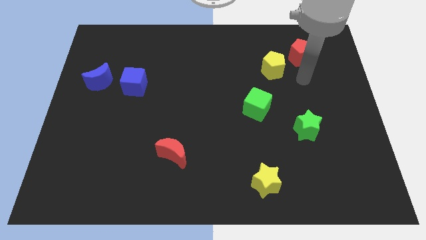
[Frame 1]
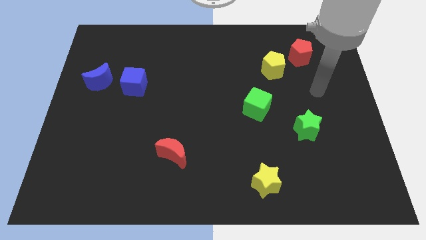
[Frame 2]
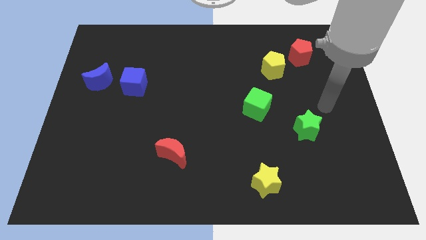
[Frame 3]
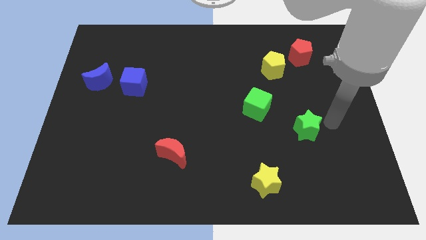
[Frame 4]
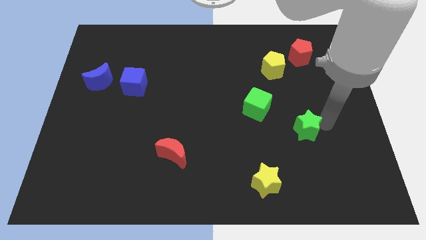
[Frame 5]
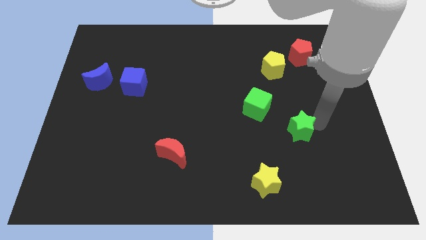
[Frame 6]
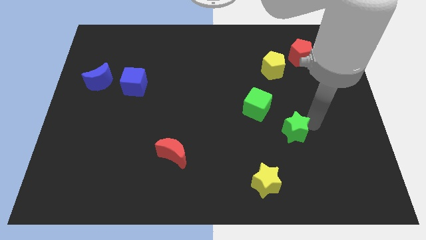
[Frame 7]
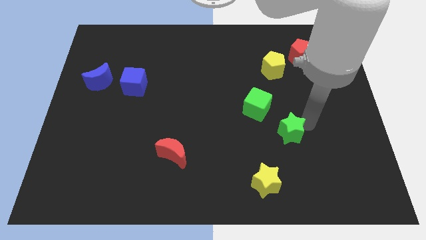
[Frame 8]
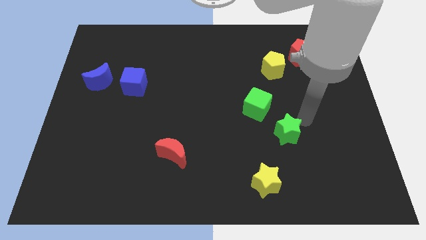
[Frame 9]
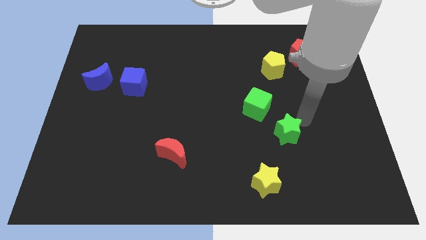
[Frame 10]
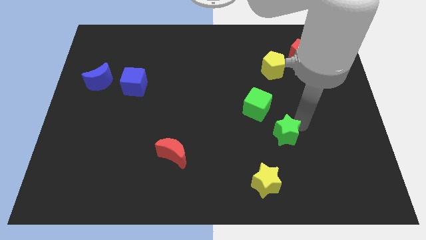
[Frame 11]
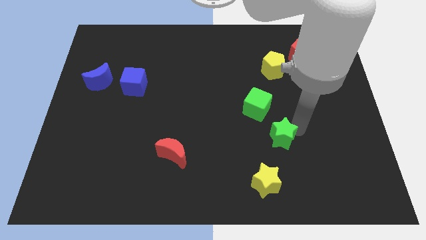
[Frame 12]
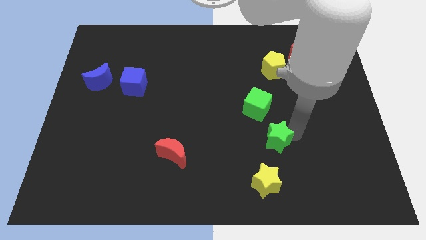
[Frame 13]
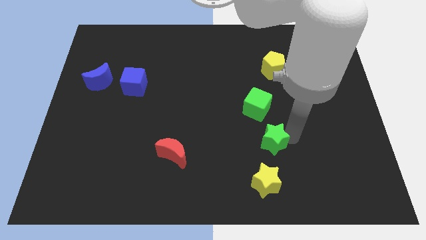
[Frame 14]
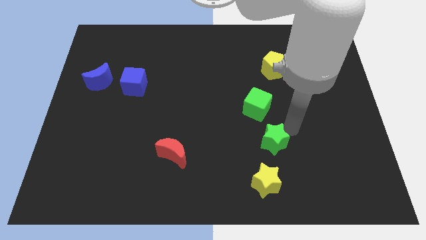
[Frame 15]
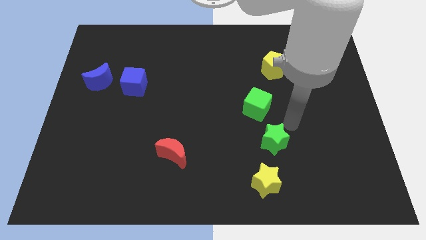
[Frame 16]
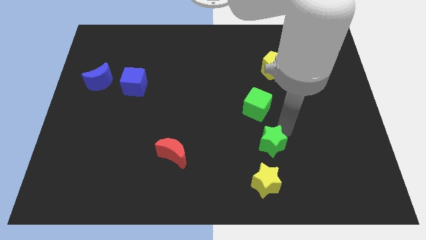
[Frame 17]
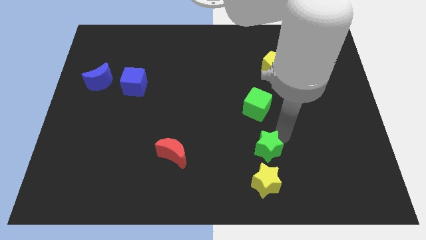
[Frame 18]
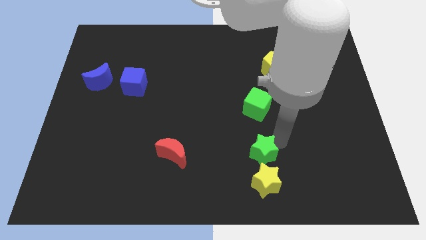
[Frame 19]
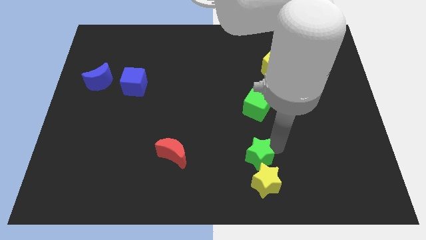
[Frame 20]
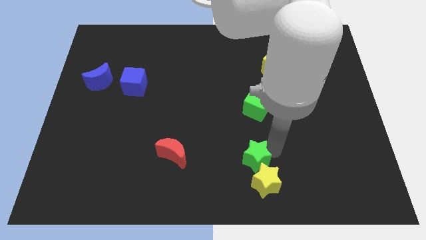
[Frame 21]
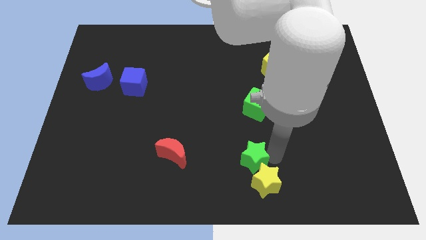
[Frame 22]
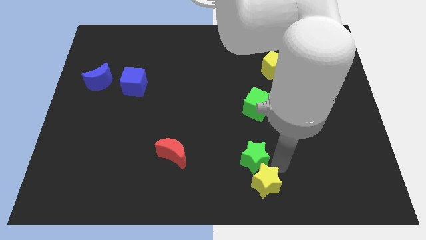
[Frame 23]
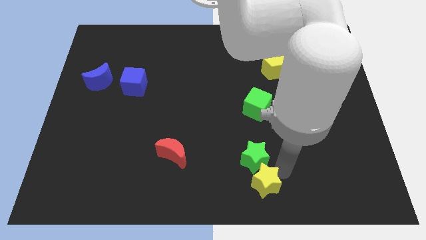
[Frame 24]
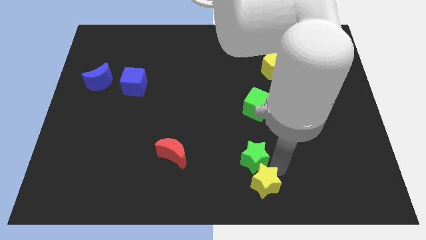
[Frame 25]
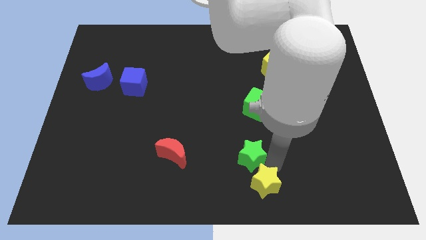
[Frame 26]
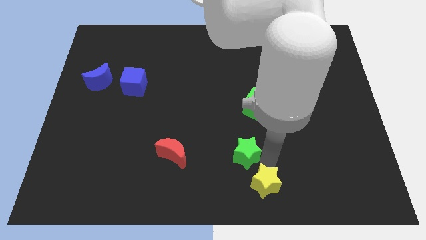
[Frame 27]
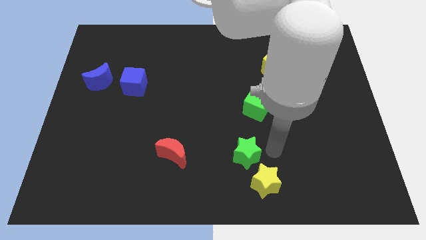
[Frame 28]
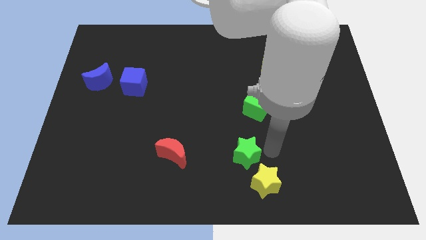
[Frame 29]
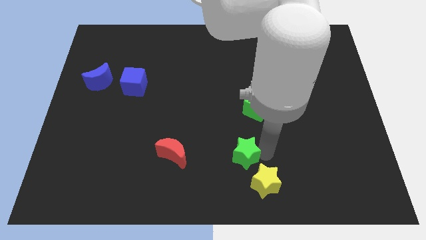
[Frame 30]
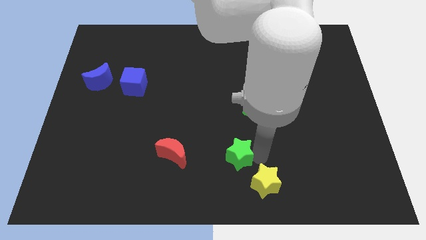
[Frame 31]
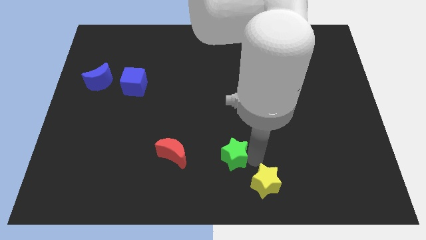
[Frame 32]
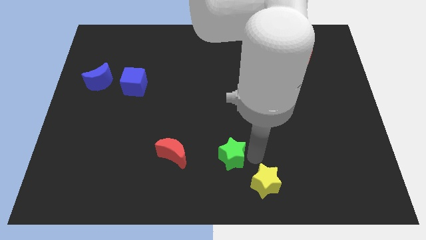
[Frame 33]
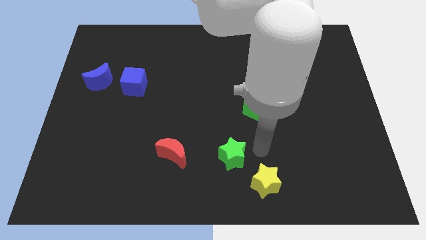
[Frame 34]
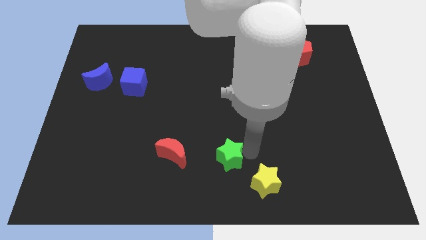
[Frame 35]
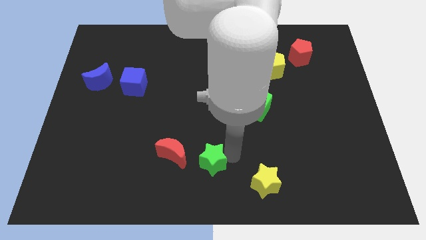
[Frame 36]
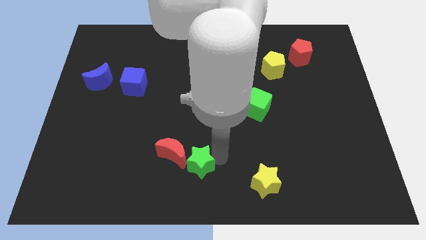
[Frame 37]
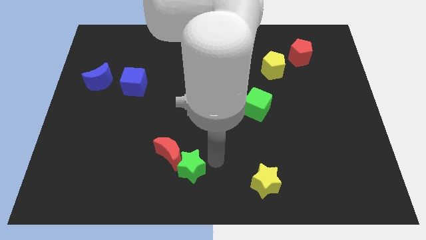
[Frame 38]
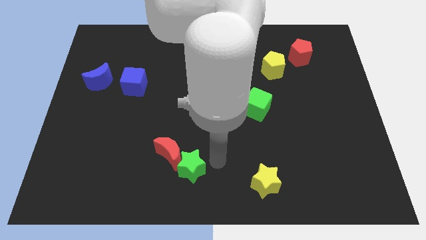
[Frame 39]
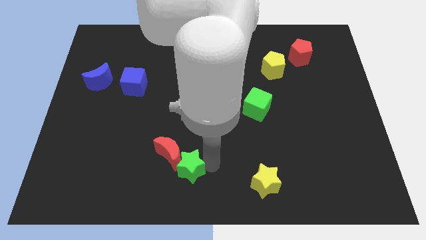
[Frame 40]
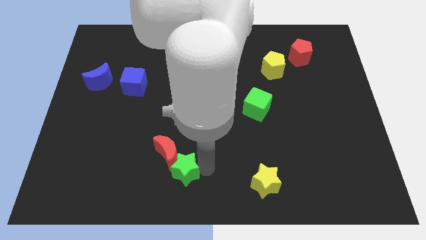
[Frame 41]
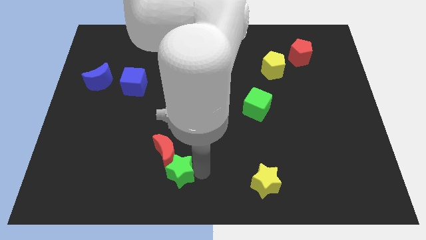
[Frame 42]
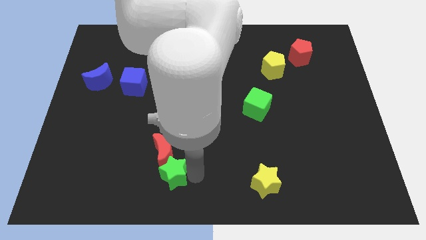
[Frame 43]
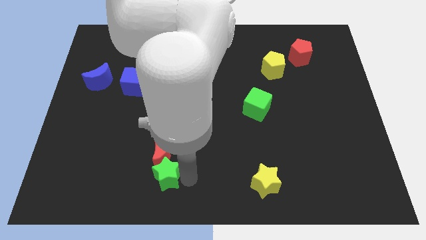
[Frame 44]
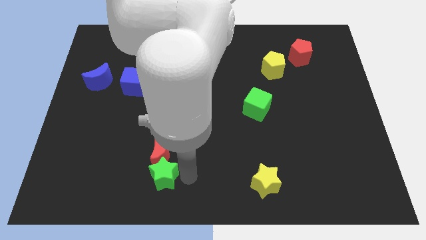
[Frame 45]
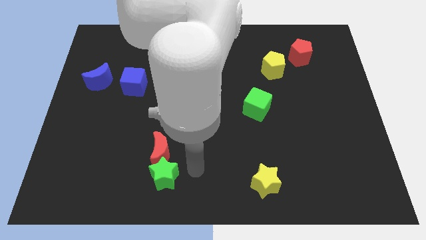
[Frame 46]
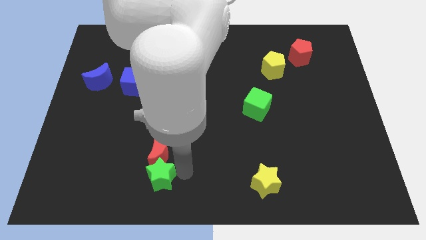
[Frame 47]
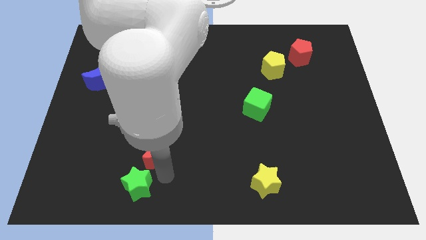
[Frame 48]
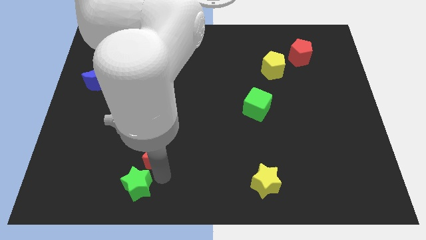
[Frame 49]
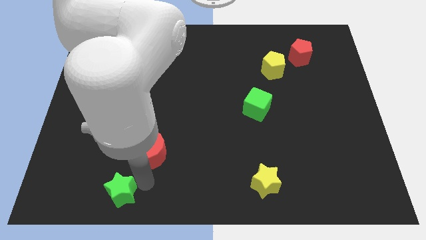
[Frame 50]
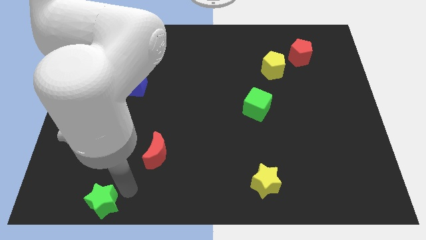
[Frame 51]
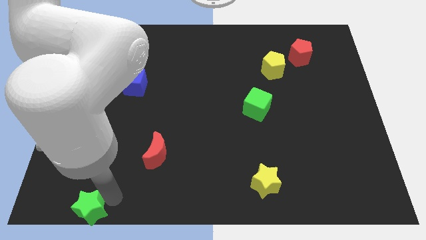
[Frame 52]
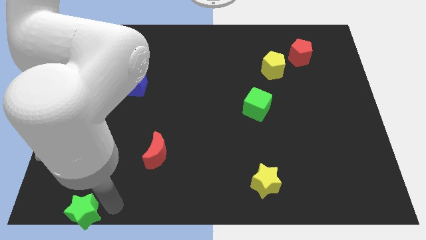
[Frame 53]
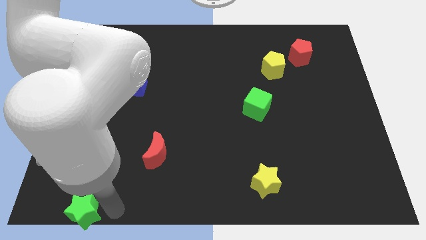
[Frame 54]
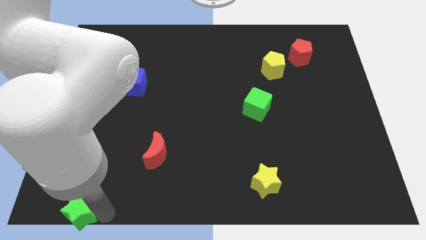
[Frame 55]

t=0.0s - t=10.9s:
push the green star to the bottom left of the board

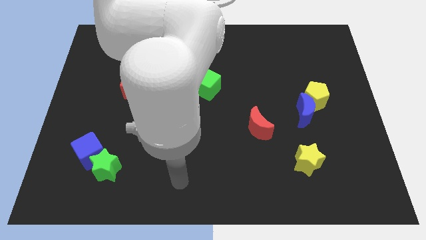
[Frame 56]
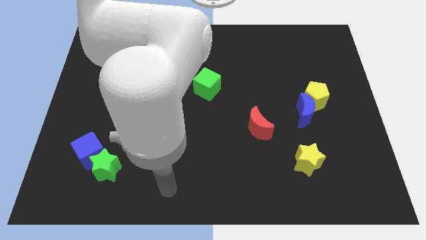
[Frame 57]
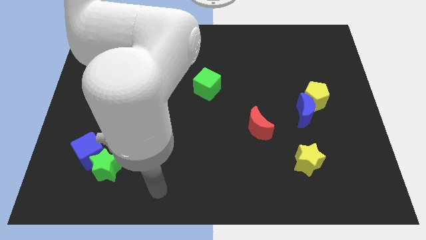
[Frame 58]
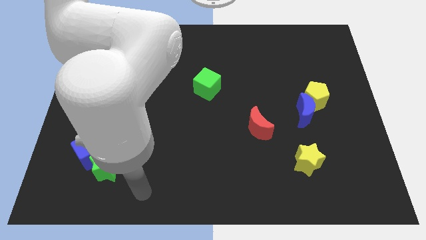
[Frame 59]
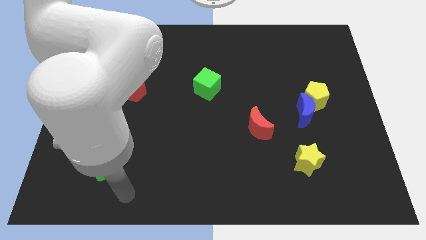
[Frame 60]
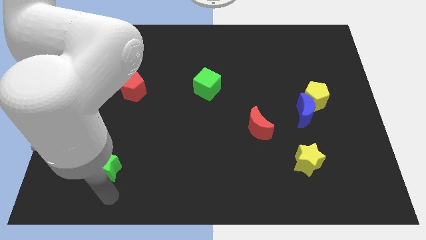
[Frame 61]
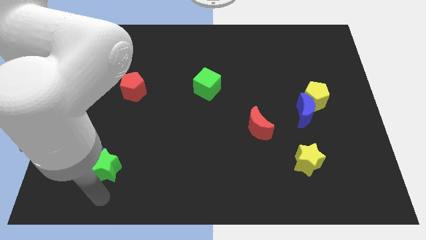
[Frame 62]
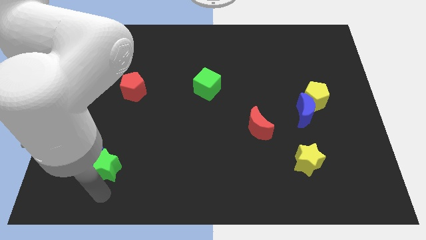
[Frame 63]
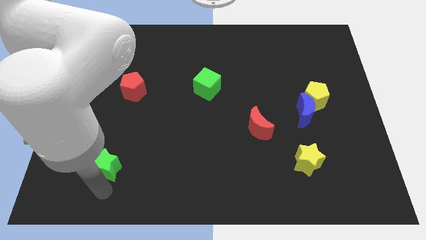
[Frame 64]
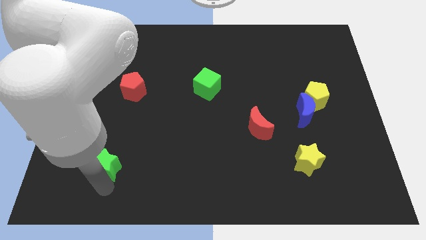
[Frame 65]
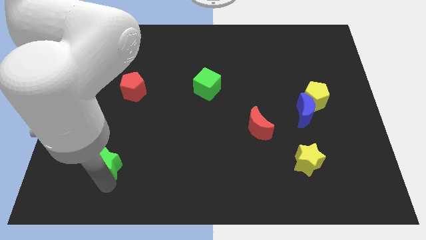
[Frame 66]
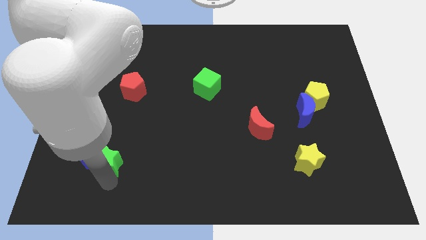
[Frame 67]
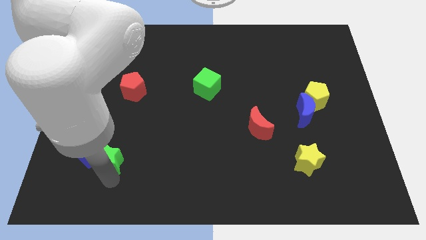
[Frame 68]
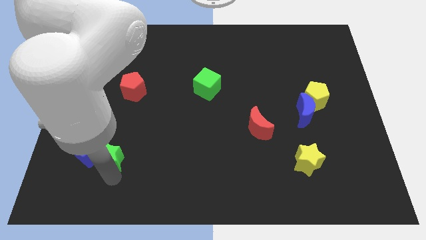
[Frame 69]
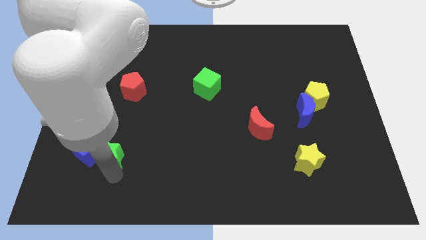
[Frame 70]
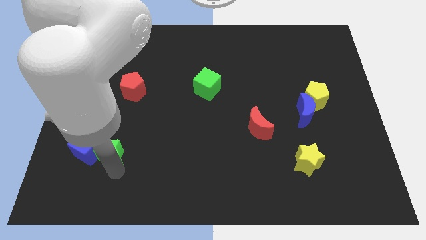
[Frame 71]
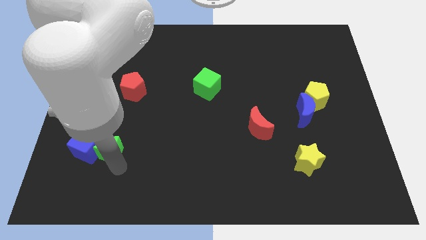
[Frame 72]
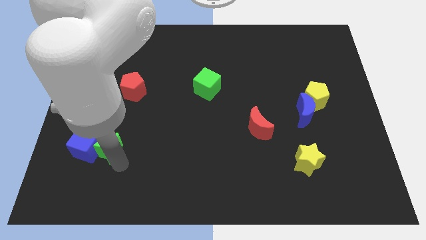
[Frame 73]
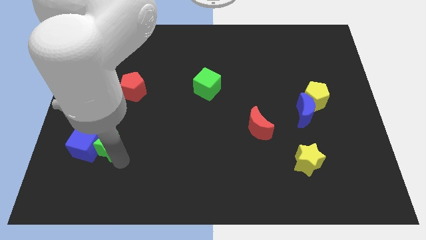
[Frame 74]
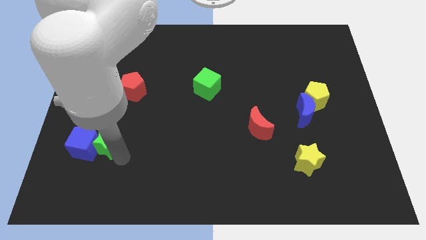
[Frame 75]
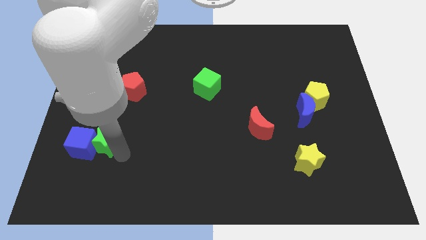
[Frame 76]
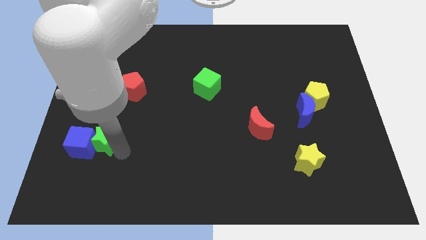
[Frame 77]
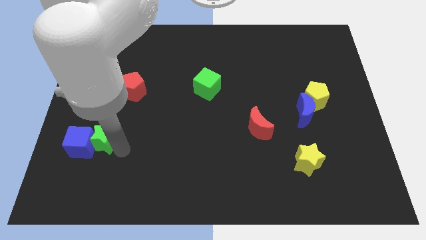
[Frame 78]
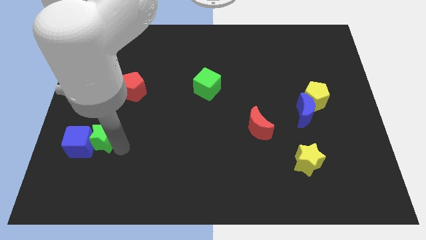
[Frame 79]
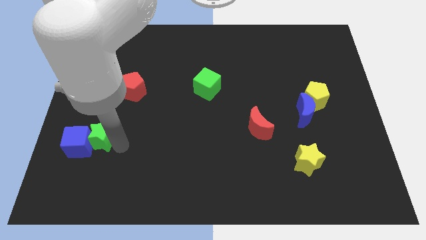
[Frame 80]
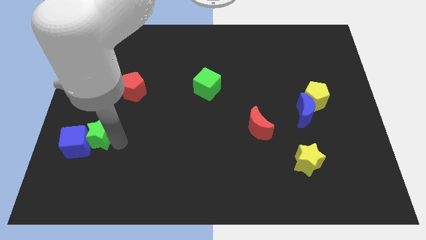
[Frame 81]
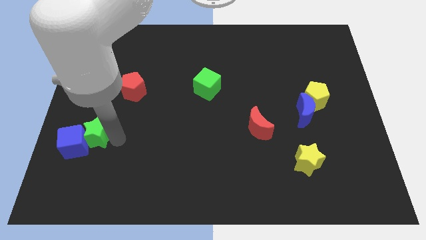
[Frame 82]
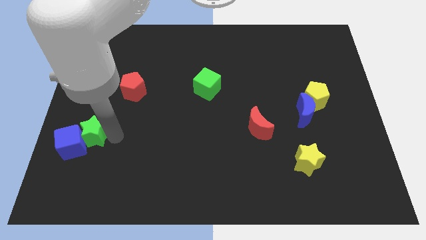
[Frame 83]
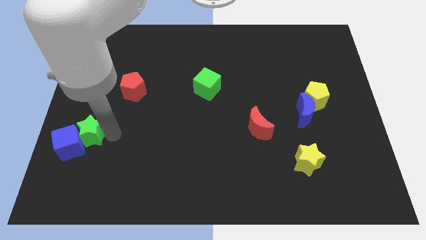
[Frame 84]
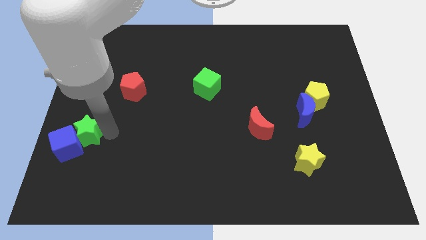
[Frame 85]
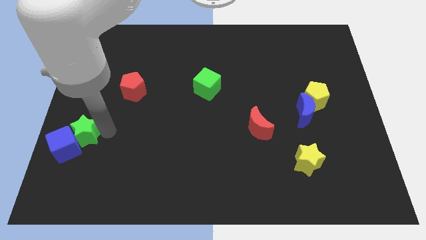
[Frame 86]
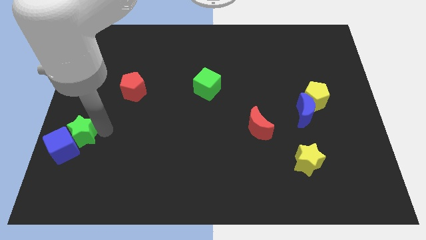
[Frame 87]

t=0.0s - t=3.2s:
push the green star to the left side of the board
